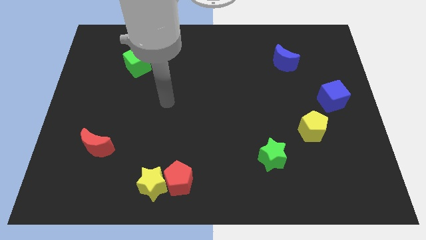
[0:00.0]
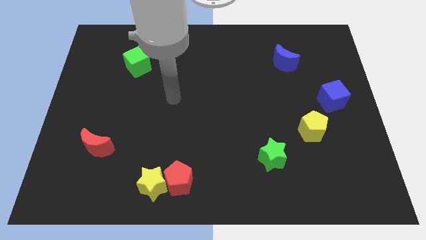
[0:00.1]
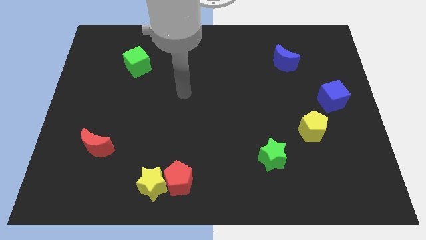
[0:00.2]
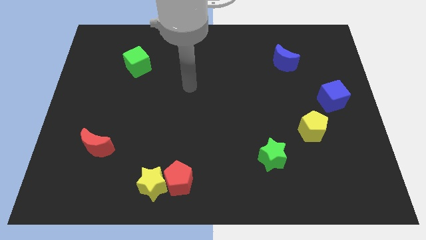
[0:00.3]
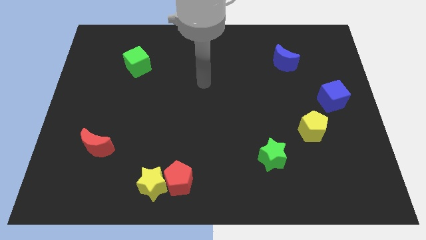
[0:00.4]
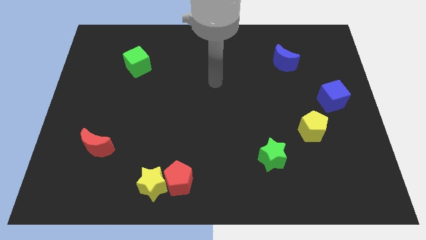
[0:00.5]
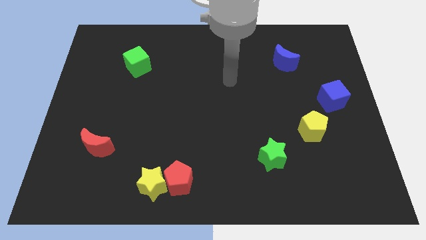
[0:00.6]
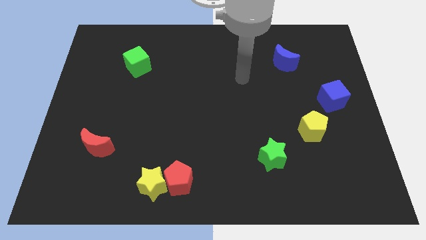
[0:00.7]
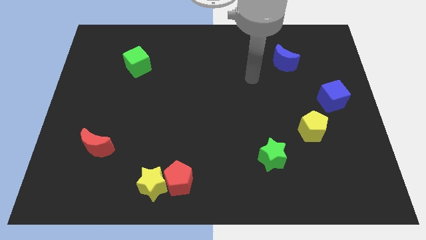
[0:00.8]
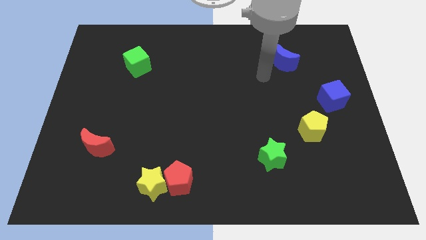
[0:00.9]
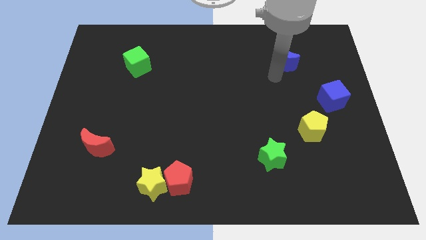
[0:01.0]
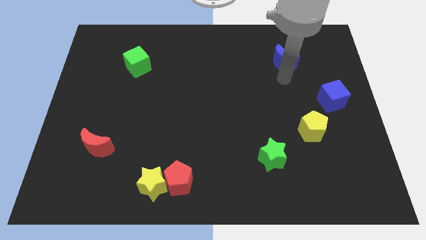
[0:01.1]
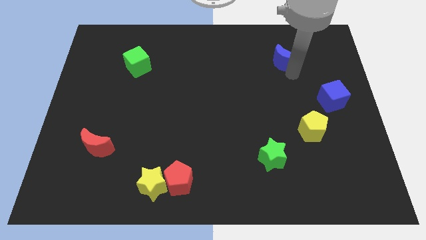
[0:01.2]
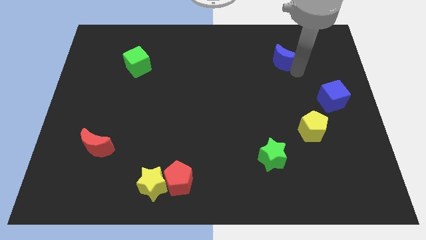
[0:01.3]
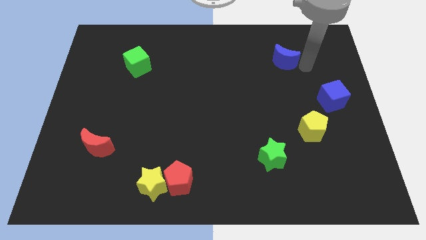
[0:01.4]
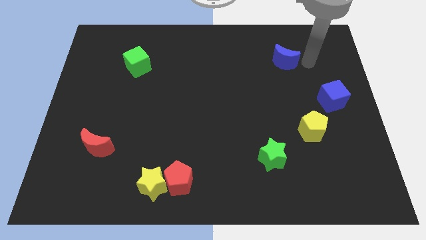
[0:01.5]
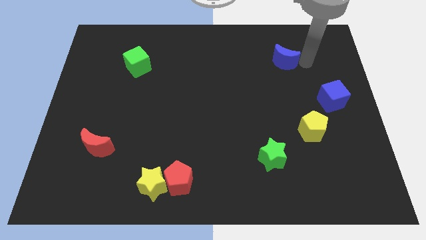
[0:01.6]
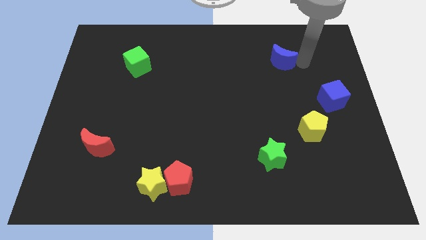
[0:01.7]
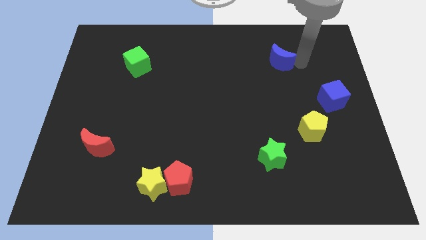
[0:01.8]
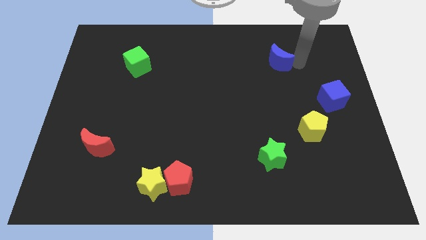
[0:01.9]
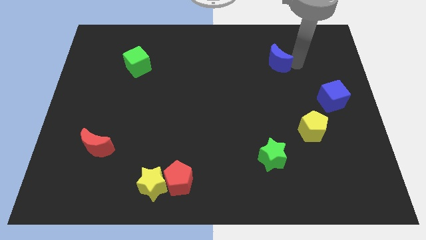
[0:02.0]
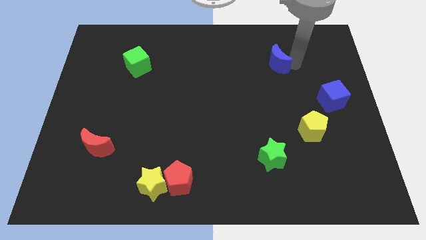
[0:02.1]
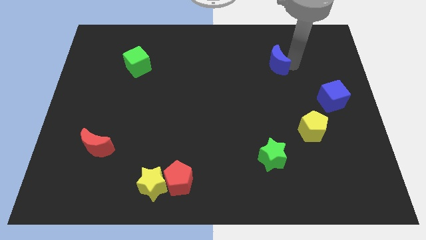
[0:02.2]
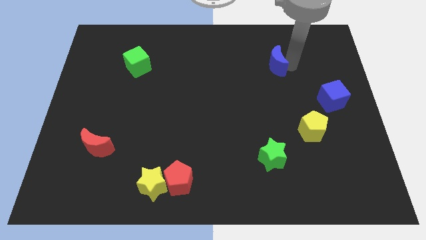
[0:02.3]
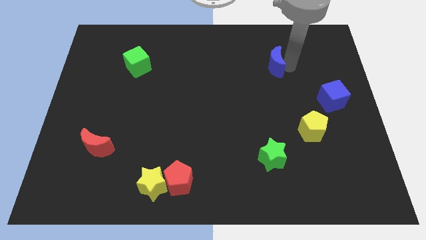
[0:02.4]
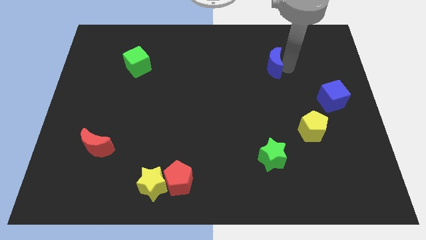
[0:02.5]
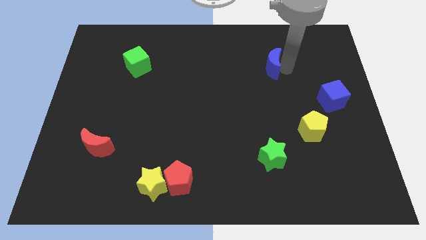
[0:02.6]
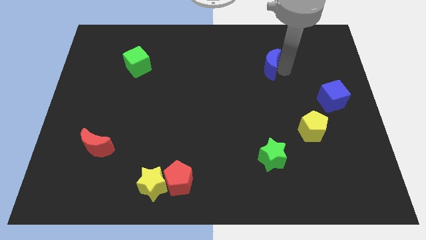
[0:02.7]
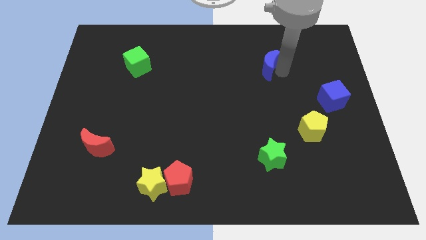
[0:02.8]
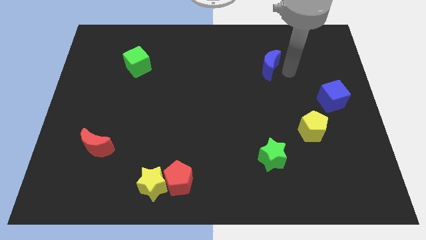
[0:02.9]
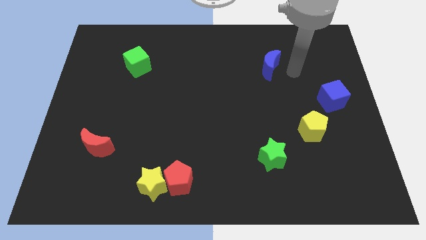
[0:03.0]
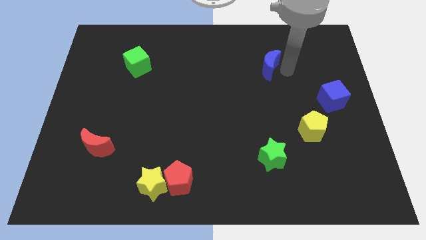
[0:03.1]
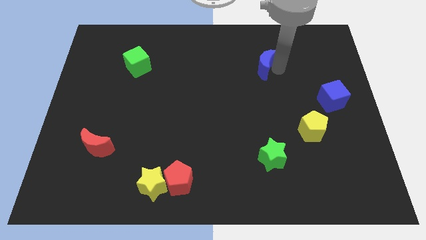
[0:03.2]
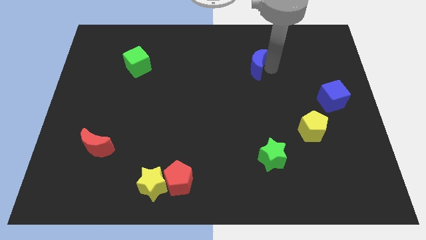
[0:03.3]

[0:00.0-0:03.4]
move the blue moon a bit left

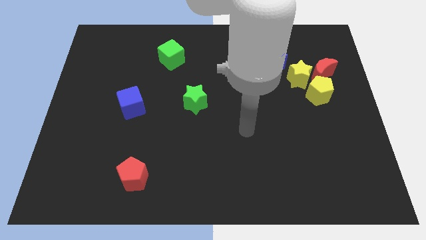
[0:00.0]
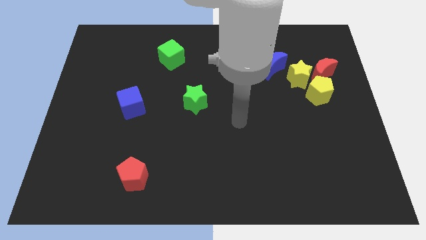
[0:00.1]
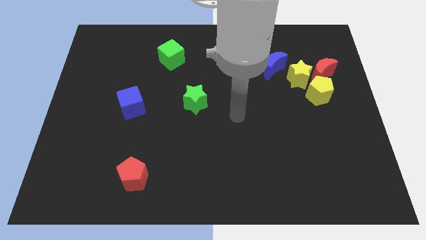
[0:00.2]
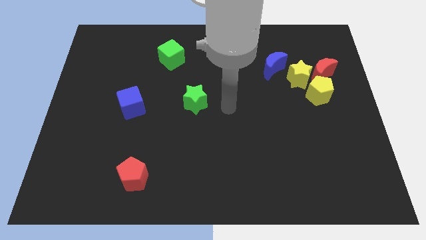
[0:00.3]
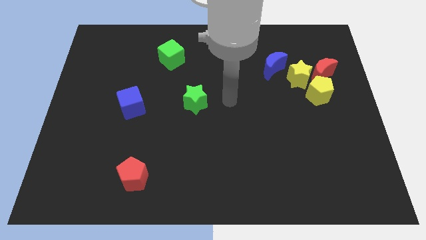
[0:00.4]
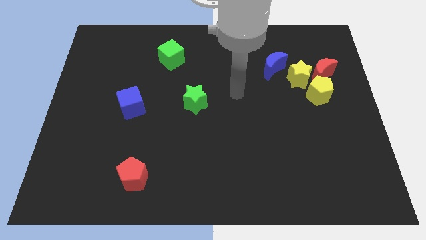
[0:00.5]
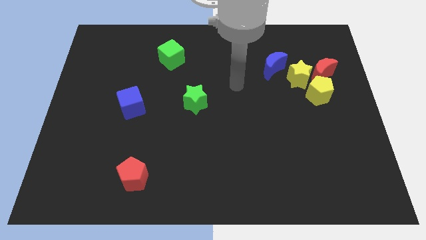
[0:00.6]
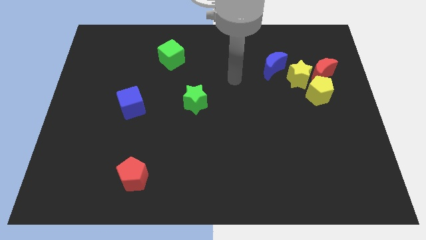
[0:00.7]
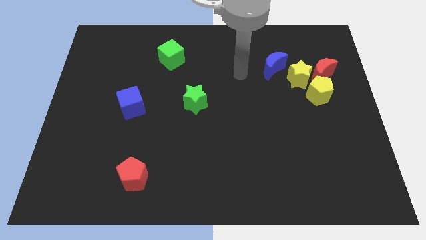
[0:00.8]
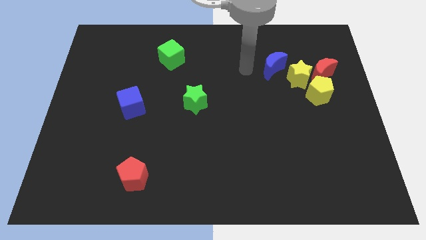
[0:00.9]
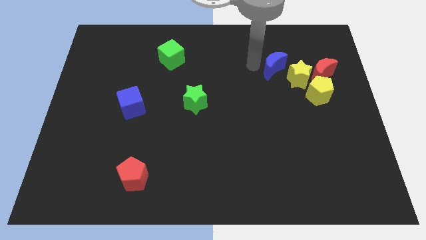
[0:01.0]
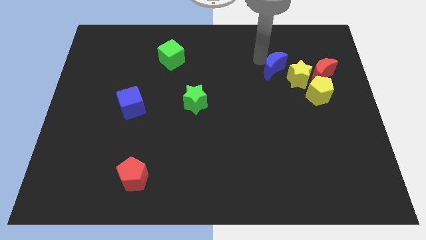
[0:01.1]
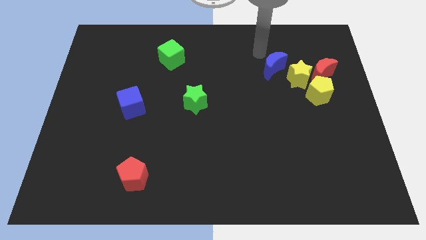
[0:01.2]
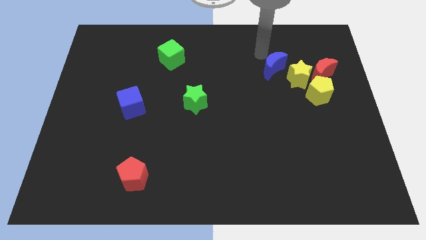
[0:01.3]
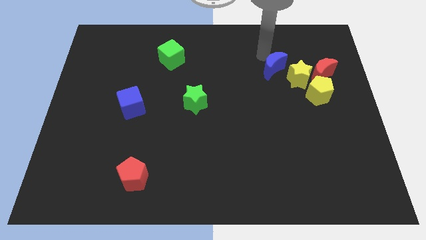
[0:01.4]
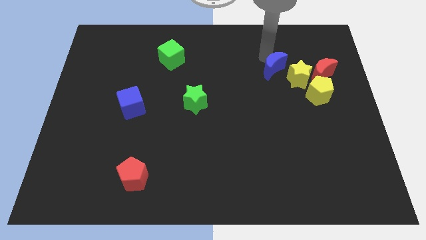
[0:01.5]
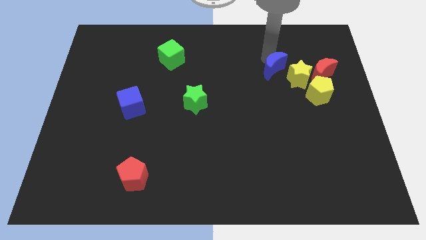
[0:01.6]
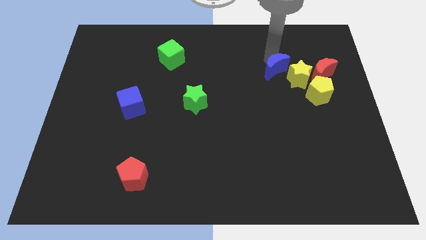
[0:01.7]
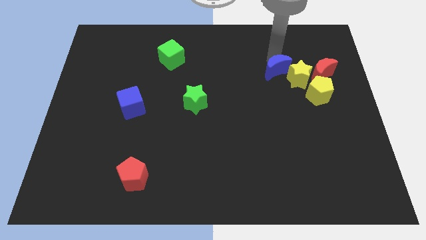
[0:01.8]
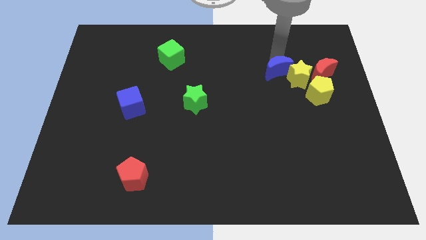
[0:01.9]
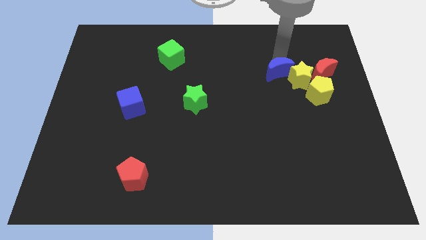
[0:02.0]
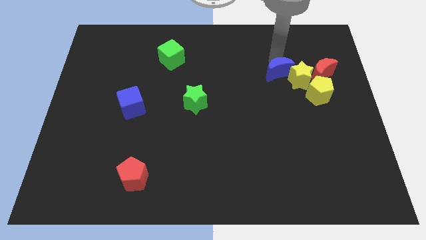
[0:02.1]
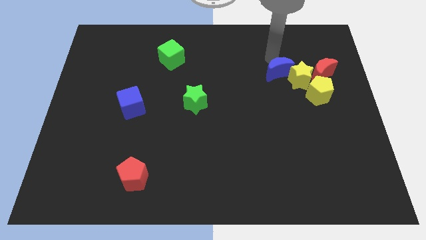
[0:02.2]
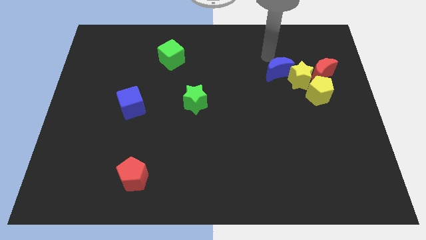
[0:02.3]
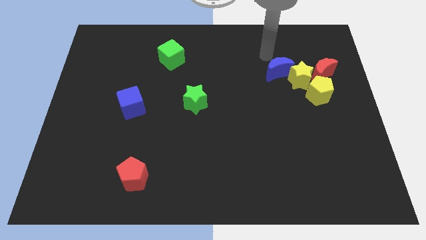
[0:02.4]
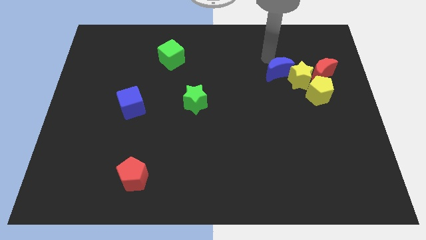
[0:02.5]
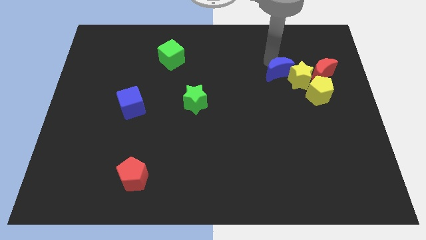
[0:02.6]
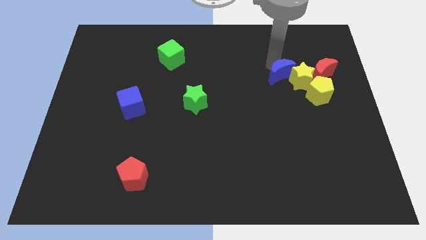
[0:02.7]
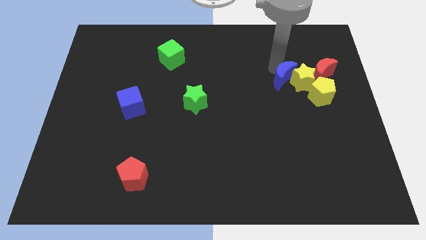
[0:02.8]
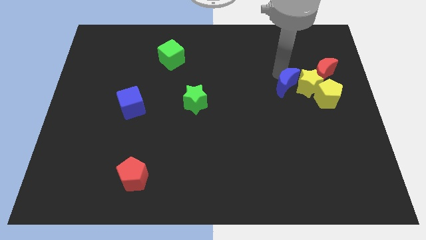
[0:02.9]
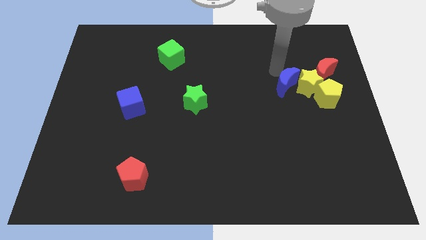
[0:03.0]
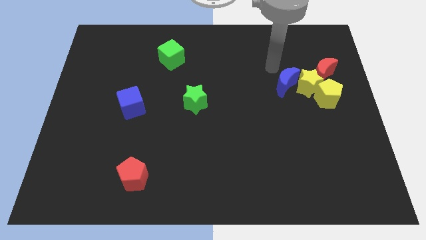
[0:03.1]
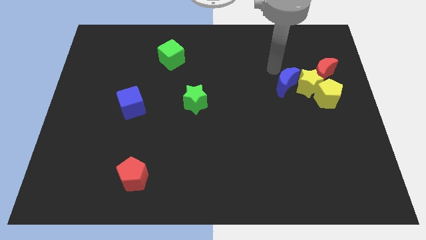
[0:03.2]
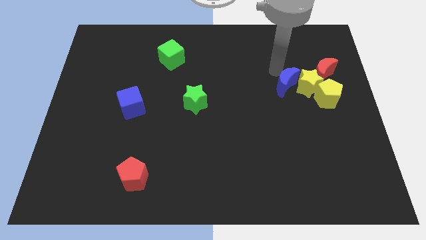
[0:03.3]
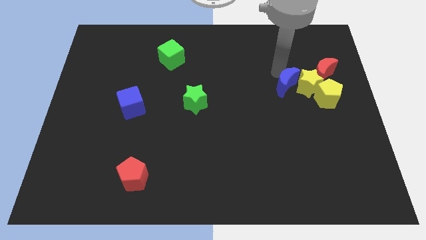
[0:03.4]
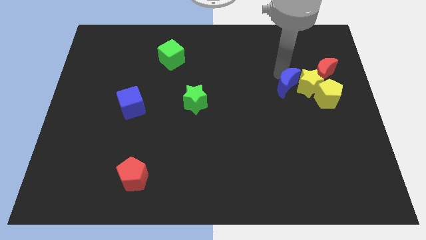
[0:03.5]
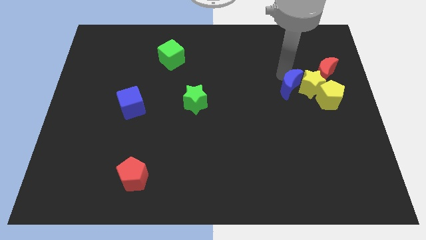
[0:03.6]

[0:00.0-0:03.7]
slightly move the blue moon diagonally down and right

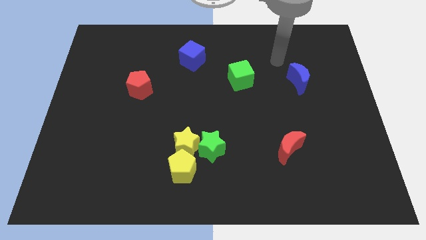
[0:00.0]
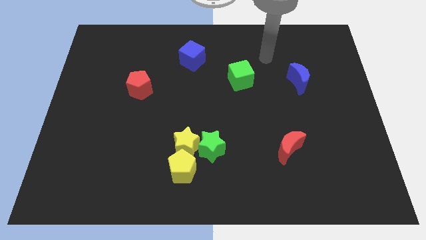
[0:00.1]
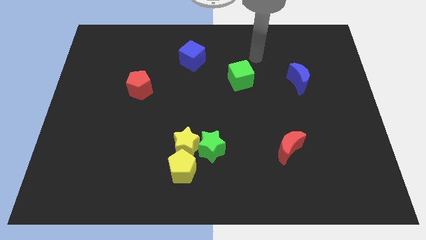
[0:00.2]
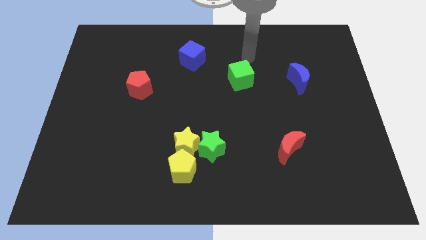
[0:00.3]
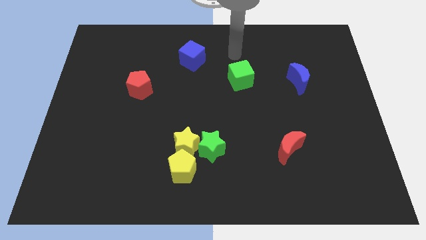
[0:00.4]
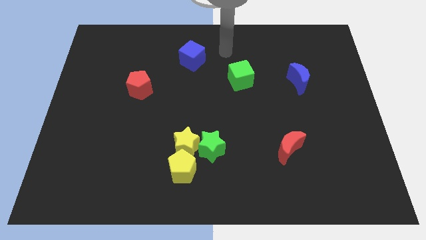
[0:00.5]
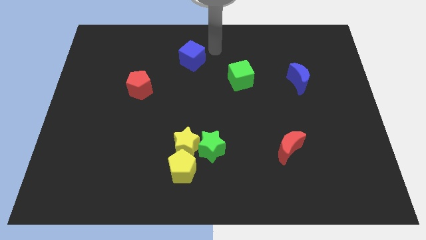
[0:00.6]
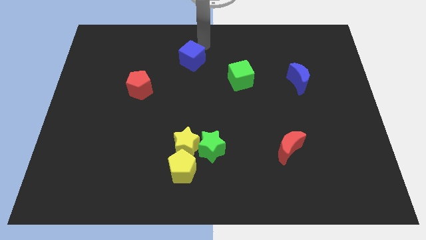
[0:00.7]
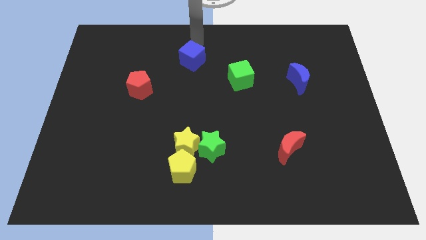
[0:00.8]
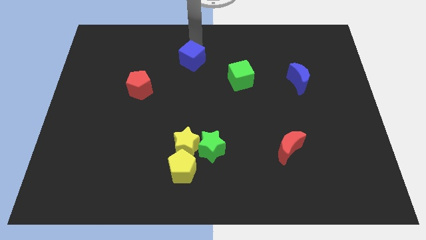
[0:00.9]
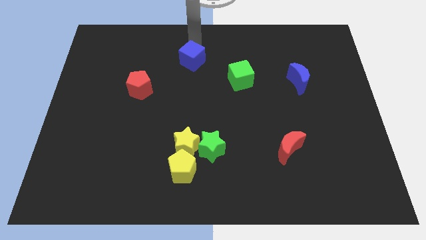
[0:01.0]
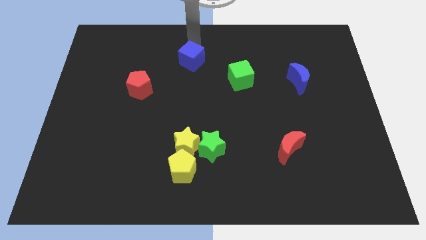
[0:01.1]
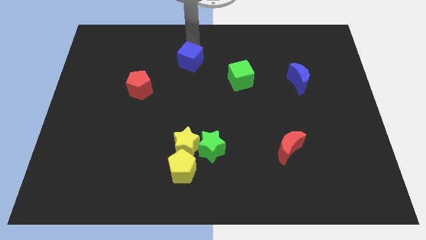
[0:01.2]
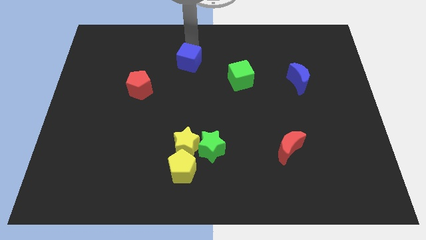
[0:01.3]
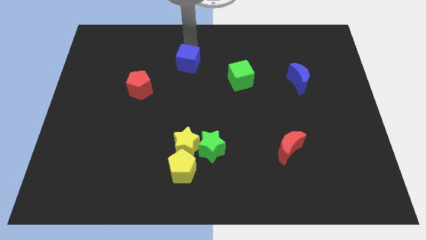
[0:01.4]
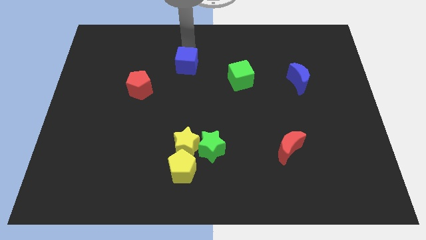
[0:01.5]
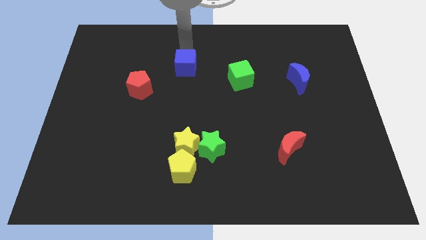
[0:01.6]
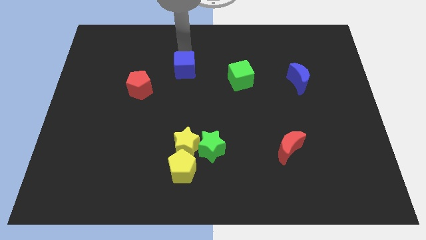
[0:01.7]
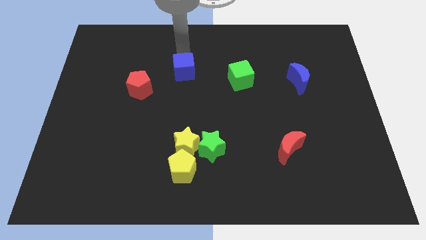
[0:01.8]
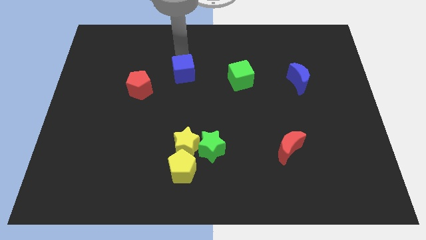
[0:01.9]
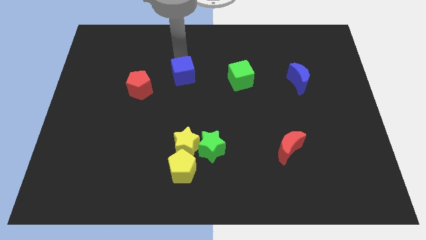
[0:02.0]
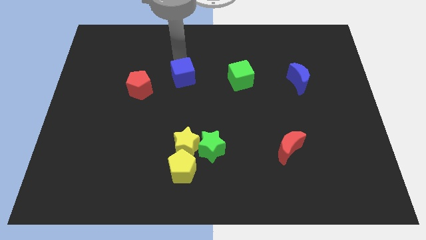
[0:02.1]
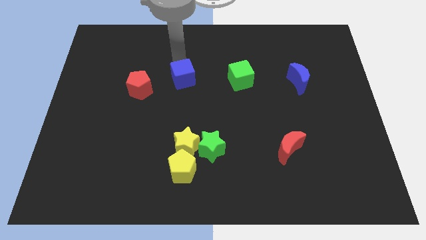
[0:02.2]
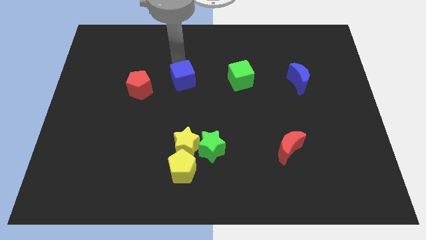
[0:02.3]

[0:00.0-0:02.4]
move the blue cube slightly downwards
